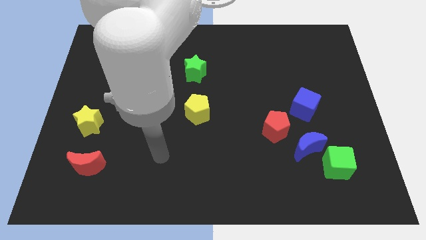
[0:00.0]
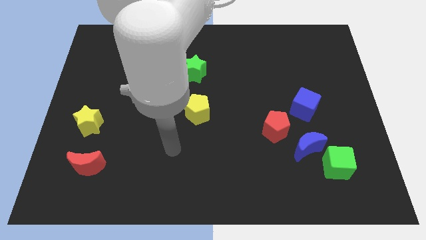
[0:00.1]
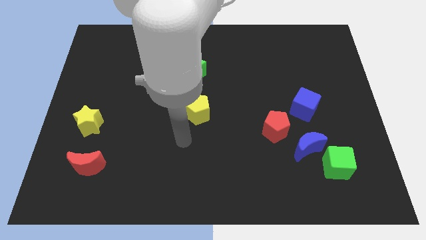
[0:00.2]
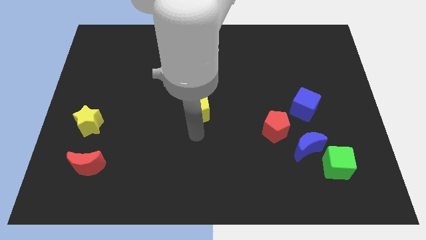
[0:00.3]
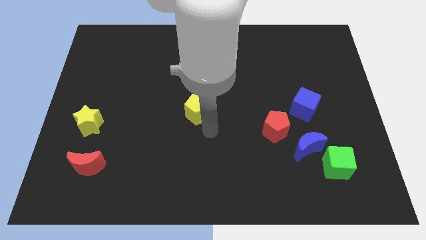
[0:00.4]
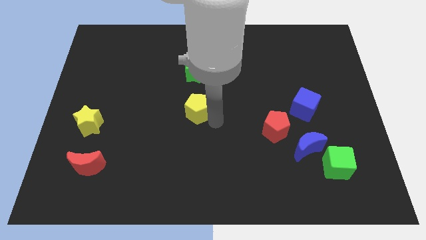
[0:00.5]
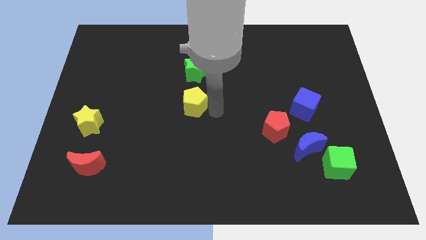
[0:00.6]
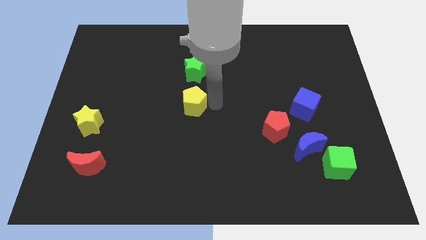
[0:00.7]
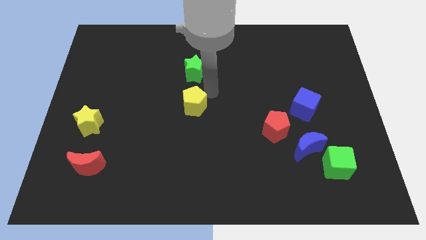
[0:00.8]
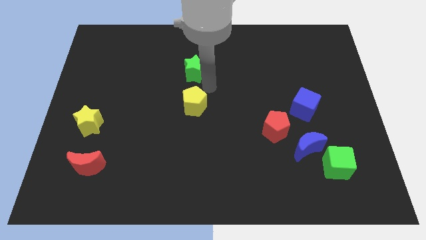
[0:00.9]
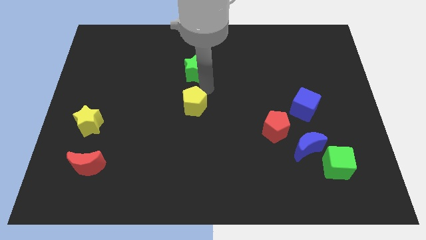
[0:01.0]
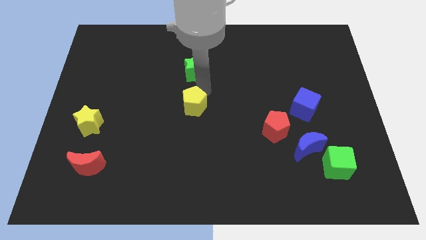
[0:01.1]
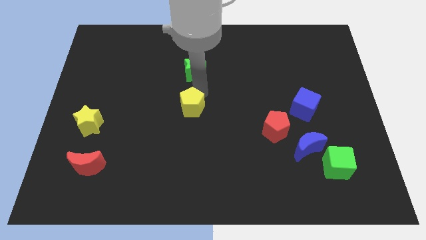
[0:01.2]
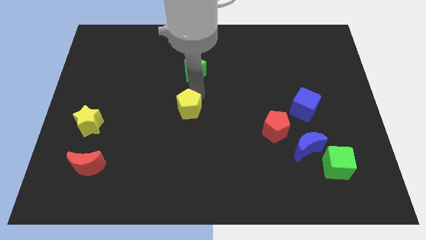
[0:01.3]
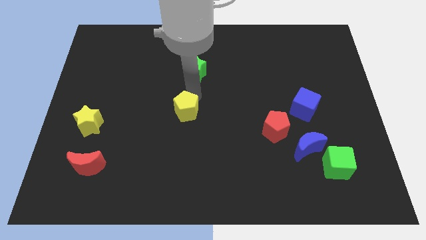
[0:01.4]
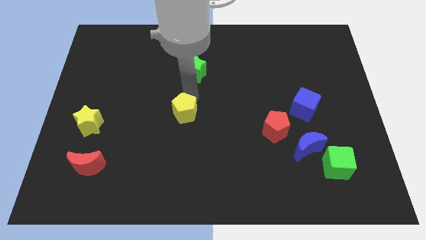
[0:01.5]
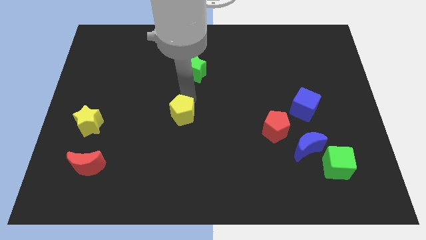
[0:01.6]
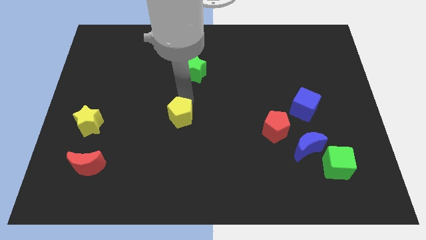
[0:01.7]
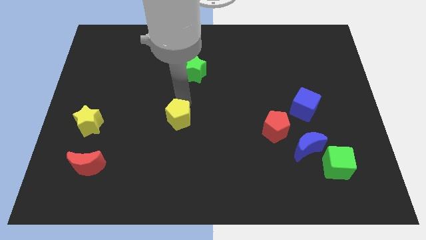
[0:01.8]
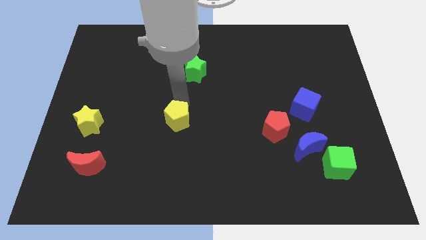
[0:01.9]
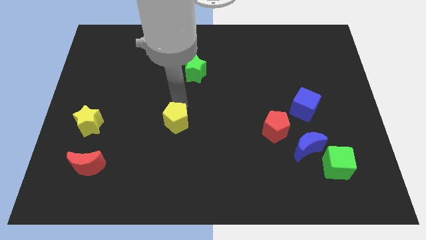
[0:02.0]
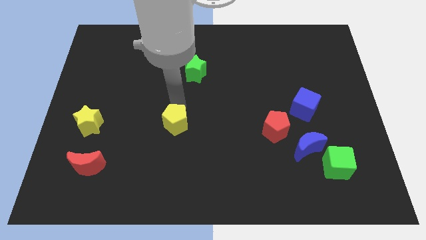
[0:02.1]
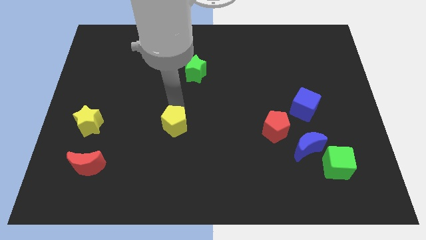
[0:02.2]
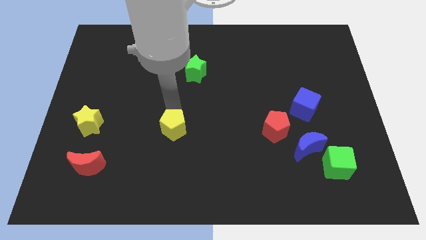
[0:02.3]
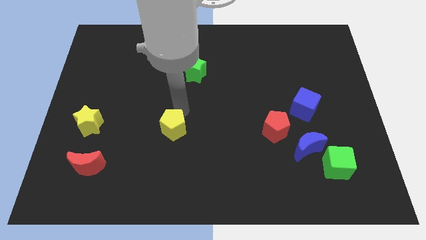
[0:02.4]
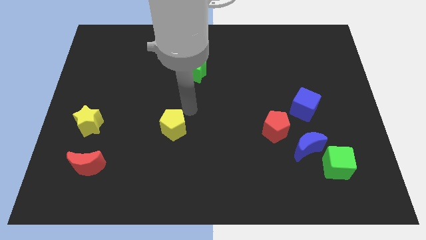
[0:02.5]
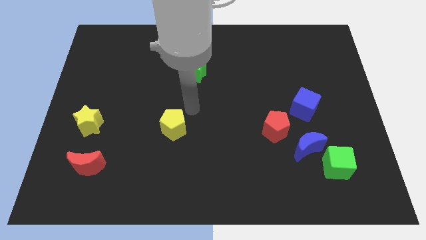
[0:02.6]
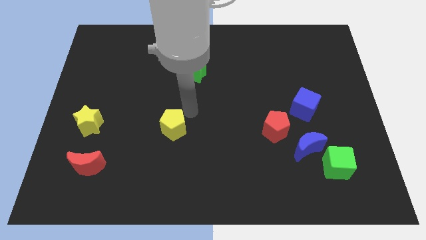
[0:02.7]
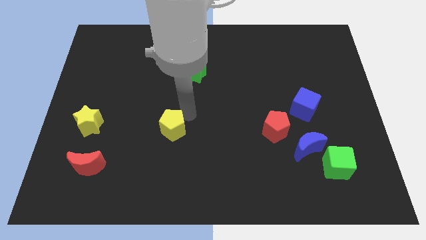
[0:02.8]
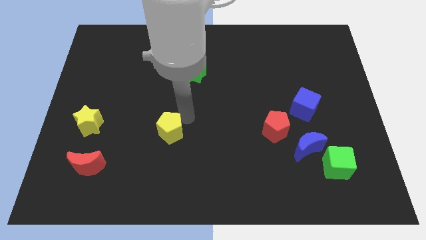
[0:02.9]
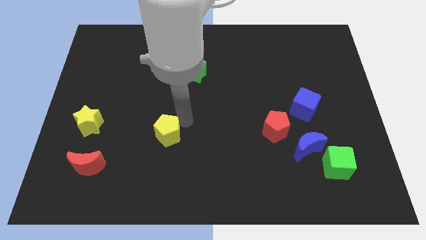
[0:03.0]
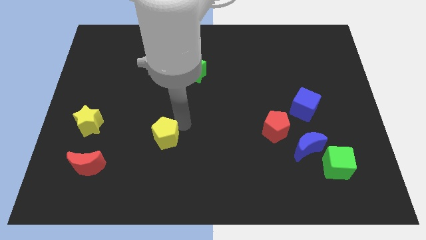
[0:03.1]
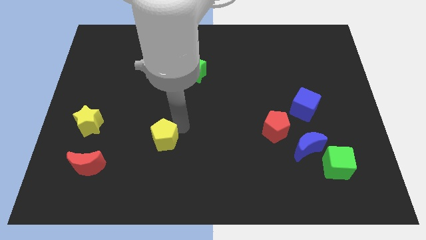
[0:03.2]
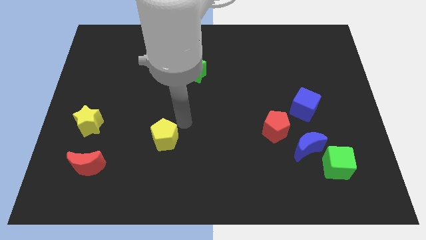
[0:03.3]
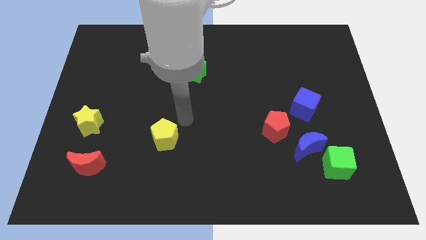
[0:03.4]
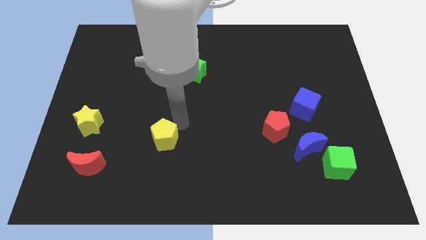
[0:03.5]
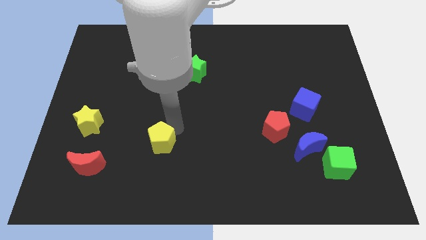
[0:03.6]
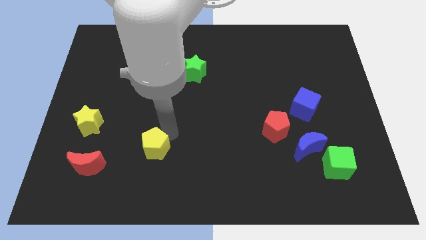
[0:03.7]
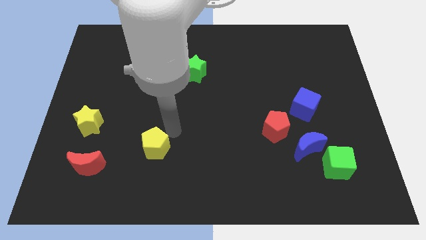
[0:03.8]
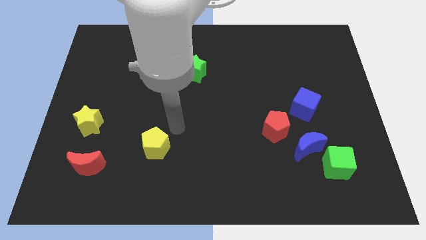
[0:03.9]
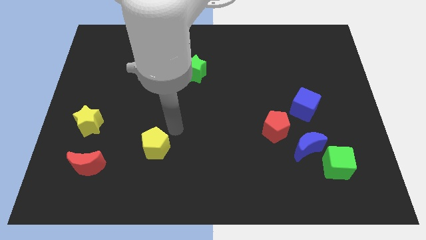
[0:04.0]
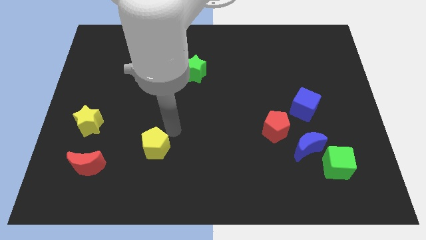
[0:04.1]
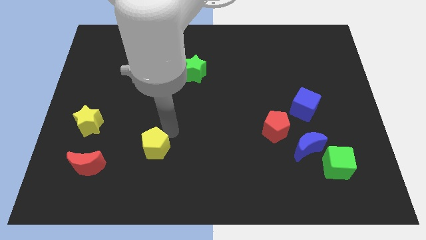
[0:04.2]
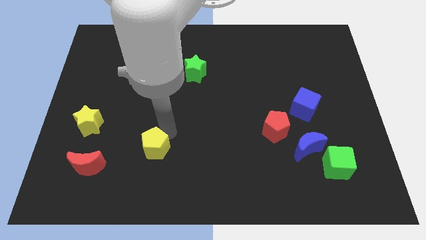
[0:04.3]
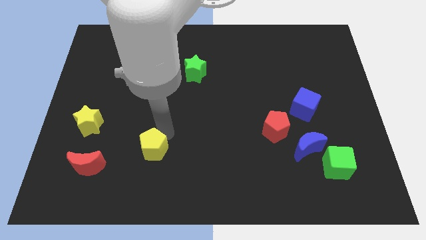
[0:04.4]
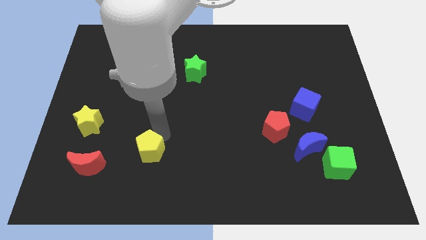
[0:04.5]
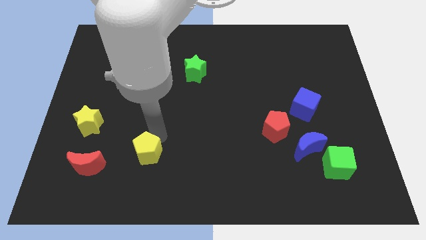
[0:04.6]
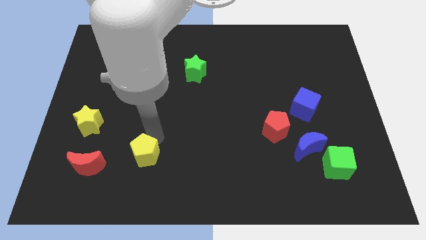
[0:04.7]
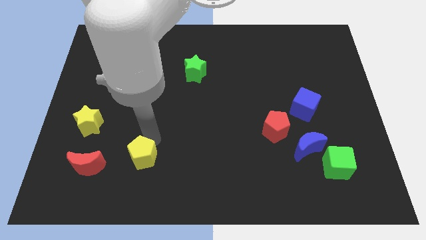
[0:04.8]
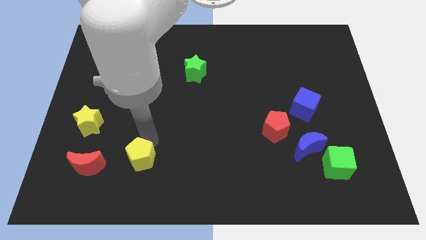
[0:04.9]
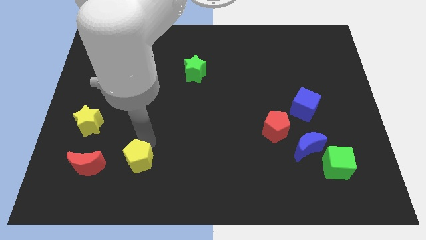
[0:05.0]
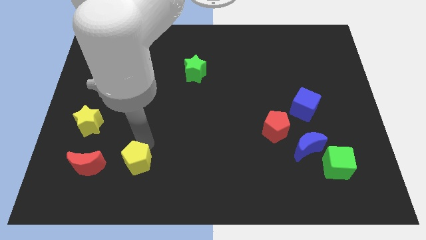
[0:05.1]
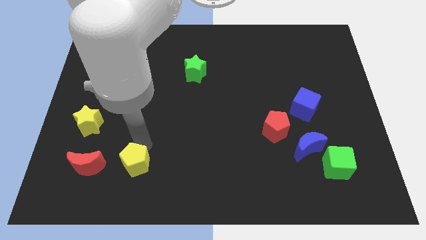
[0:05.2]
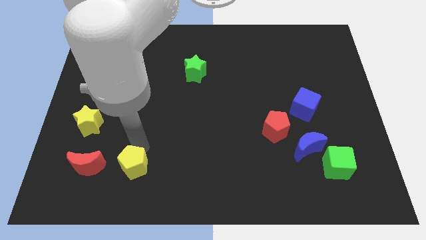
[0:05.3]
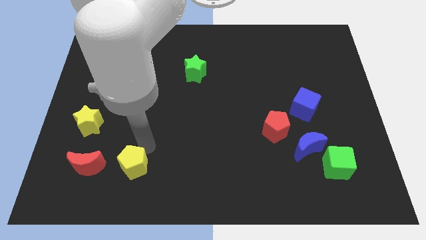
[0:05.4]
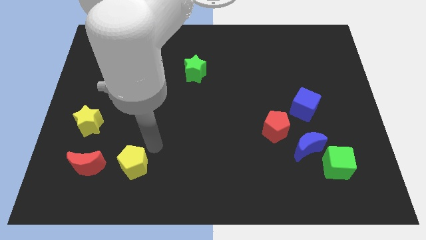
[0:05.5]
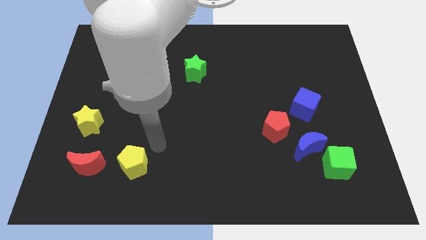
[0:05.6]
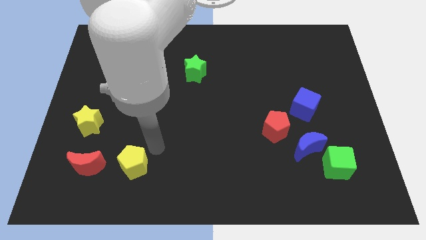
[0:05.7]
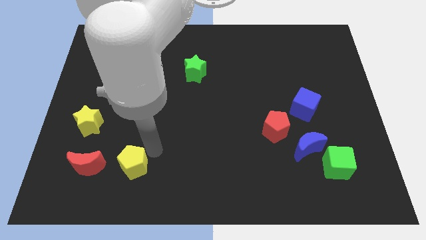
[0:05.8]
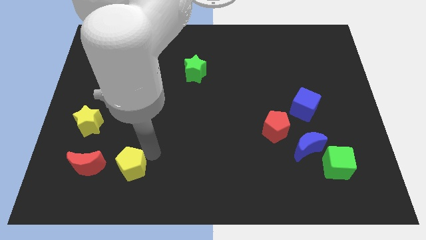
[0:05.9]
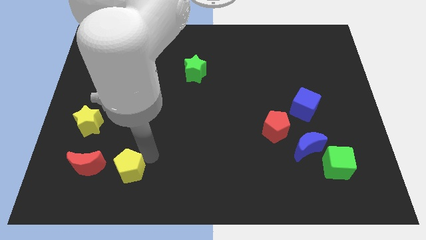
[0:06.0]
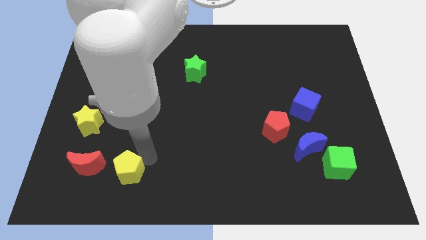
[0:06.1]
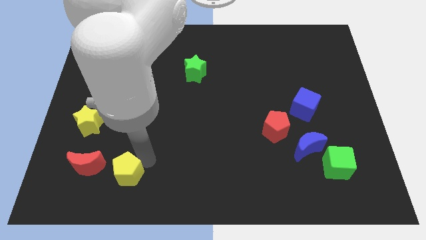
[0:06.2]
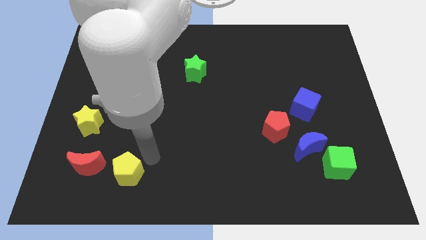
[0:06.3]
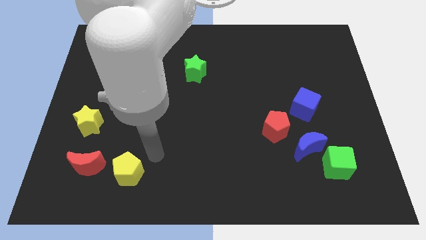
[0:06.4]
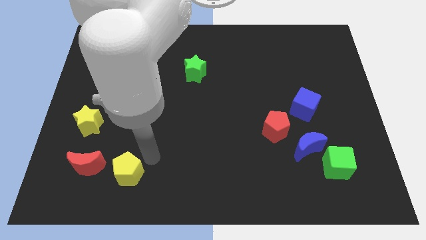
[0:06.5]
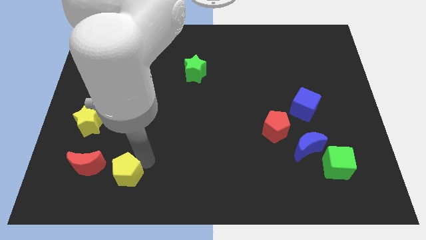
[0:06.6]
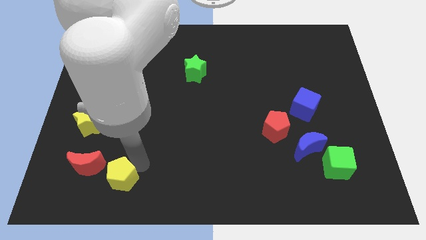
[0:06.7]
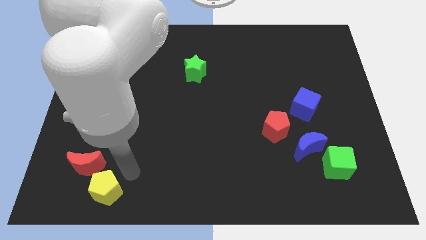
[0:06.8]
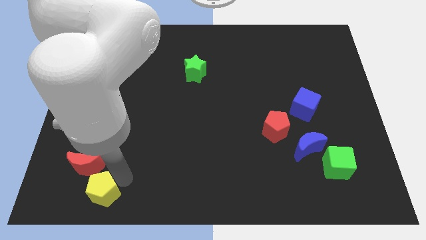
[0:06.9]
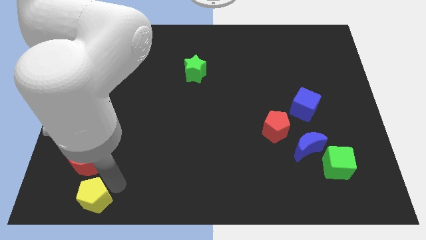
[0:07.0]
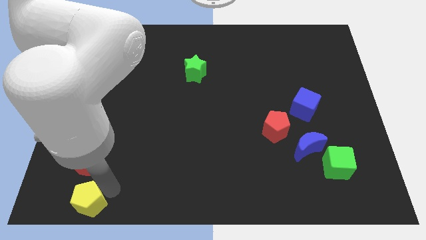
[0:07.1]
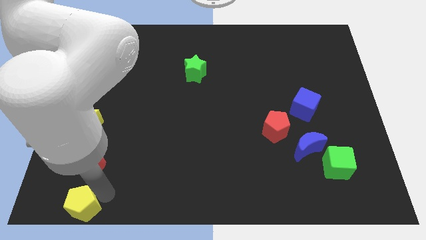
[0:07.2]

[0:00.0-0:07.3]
put the yellow pentagon to the bottom left corner

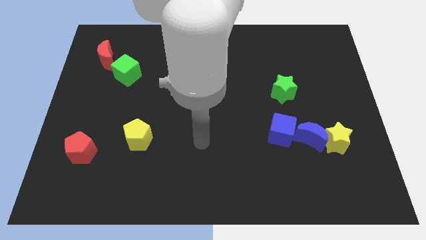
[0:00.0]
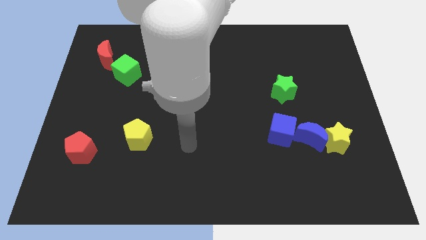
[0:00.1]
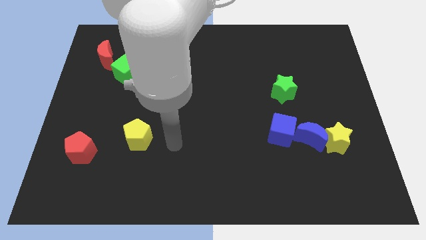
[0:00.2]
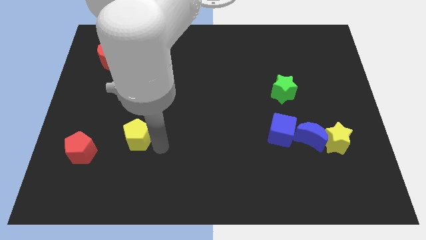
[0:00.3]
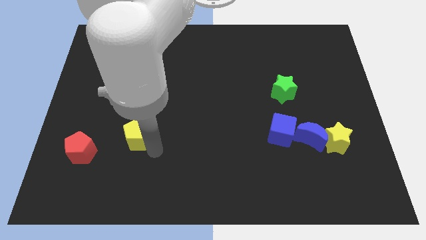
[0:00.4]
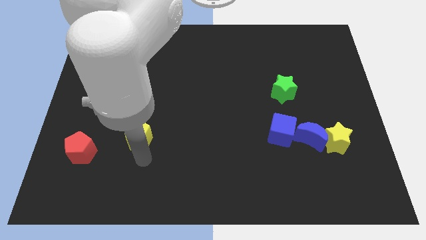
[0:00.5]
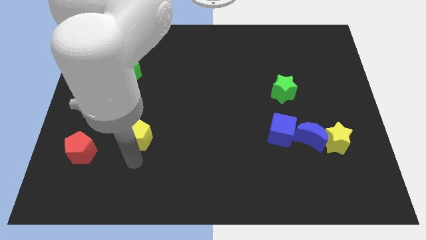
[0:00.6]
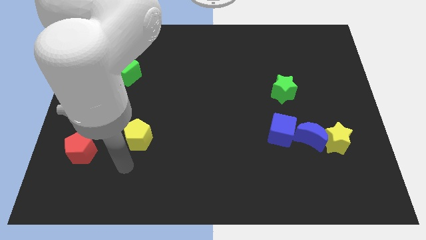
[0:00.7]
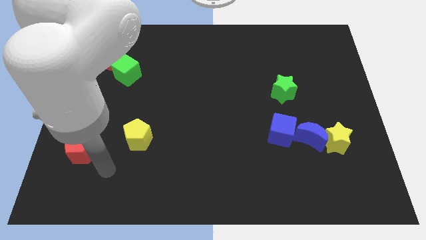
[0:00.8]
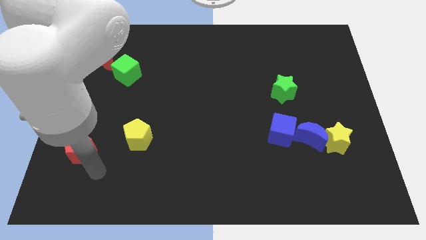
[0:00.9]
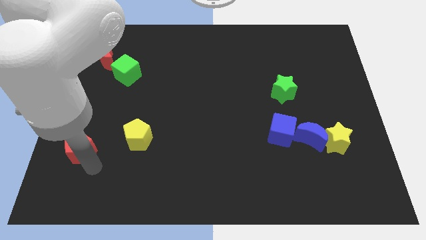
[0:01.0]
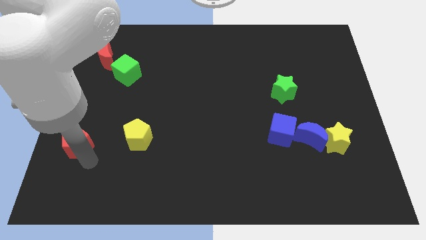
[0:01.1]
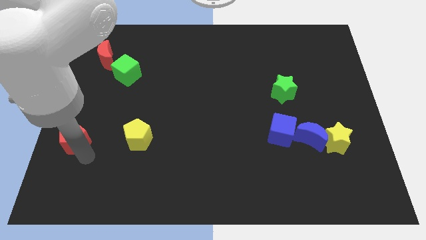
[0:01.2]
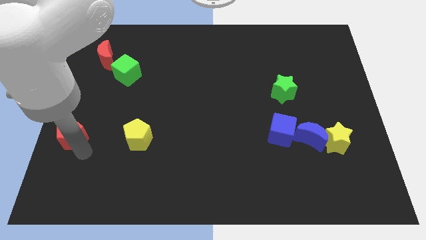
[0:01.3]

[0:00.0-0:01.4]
put the red pentagon to the center left
